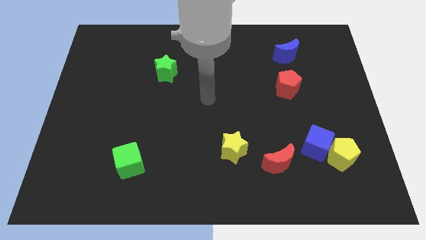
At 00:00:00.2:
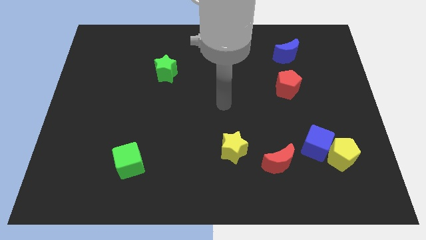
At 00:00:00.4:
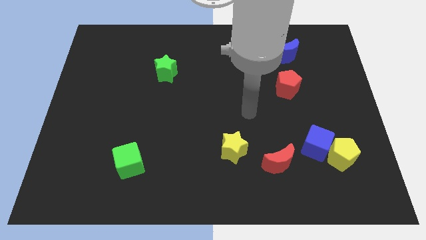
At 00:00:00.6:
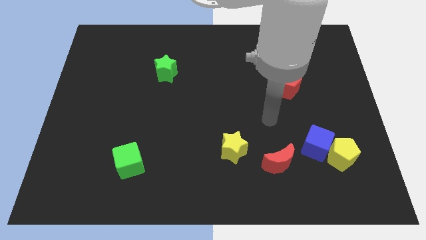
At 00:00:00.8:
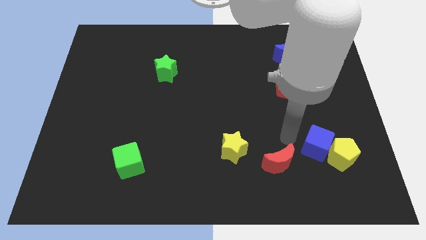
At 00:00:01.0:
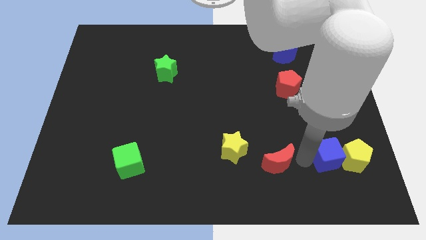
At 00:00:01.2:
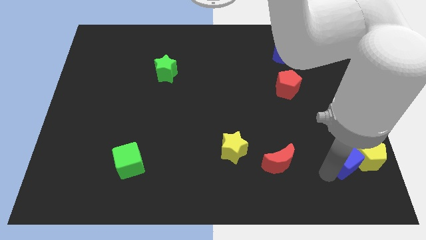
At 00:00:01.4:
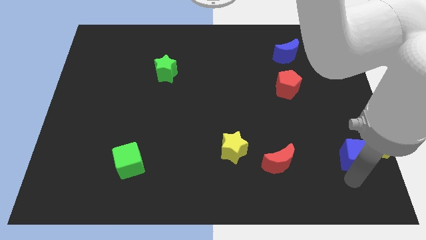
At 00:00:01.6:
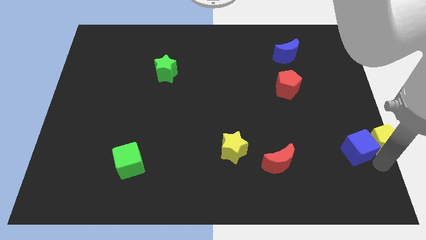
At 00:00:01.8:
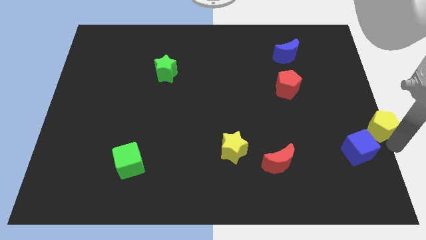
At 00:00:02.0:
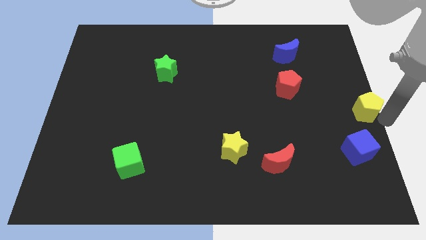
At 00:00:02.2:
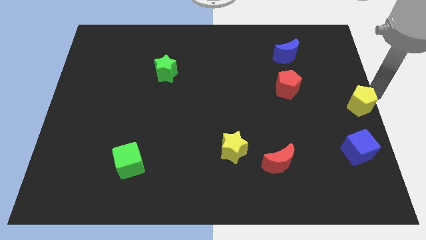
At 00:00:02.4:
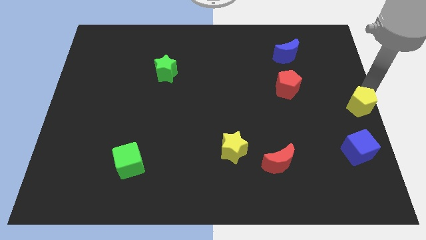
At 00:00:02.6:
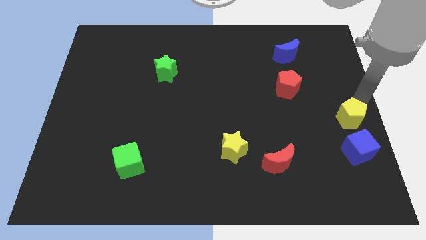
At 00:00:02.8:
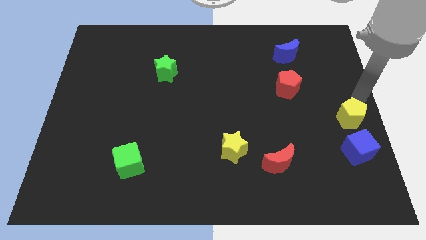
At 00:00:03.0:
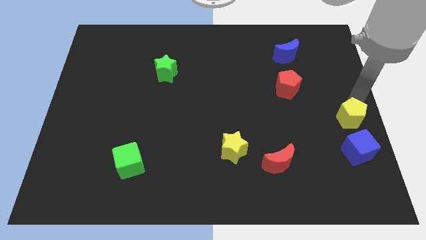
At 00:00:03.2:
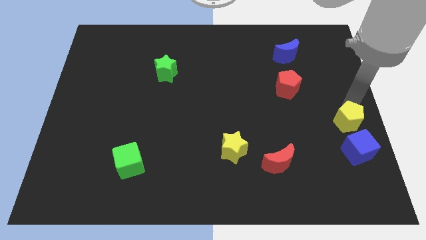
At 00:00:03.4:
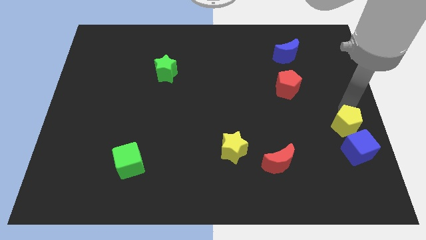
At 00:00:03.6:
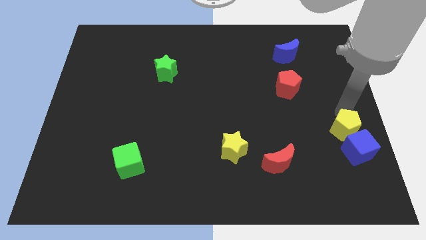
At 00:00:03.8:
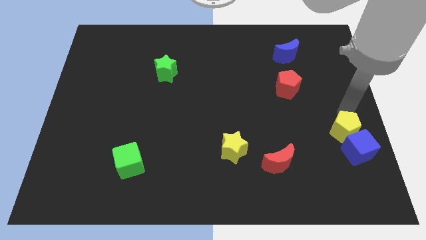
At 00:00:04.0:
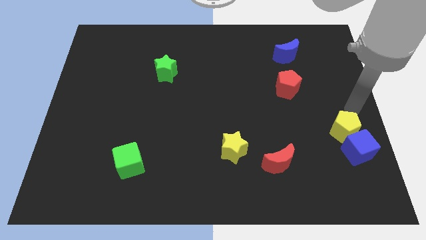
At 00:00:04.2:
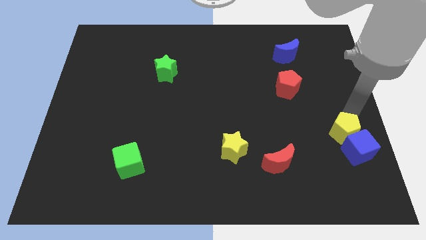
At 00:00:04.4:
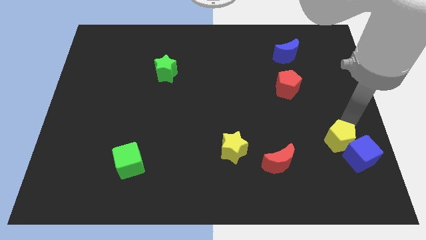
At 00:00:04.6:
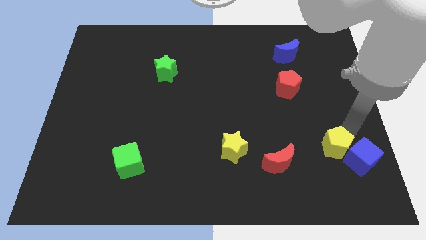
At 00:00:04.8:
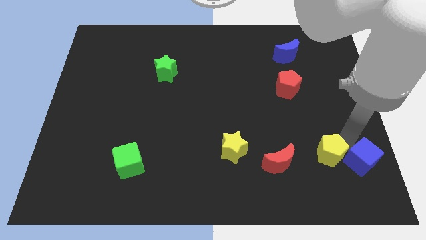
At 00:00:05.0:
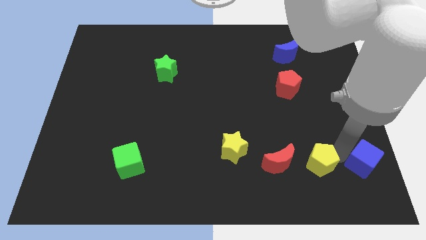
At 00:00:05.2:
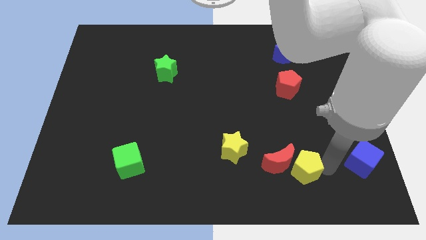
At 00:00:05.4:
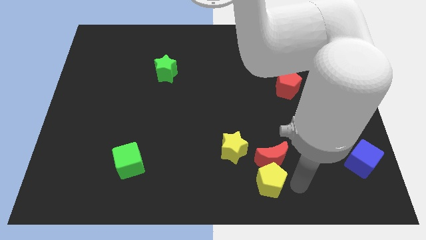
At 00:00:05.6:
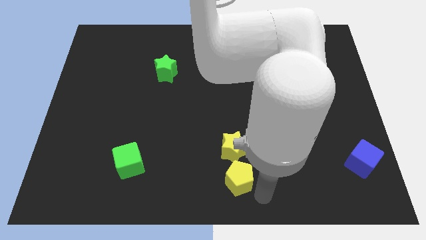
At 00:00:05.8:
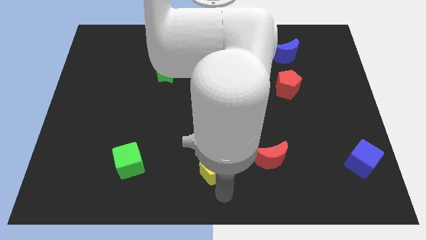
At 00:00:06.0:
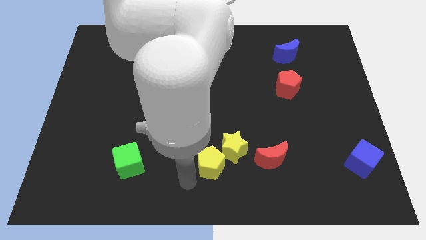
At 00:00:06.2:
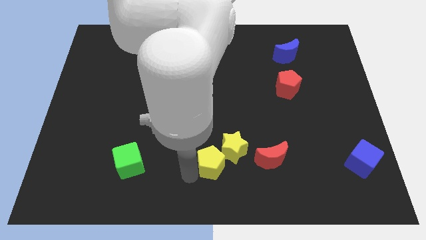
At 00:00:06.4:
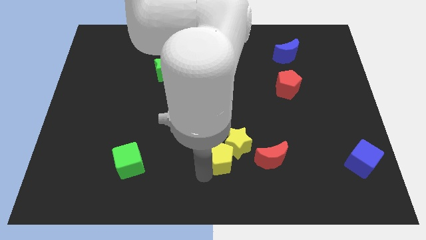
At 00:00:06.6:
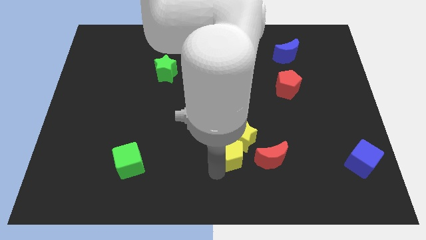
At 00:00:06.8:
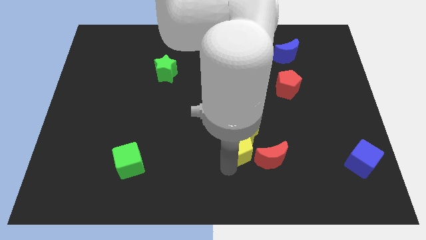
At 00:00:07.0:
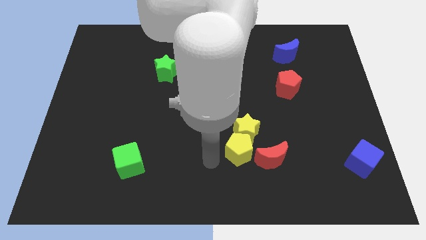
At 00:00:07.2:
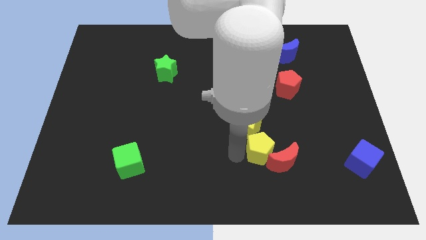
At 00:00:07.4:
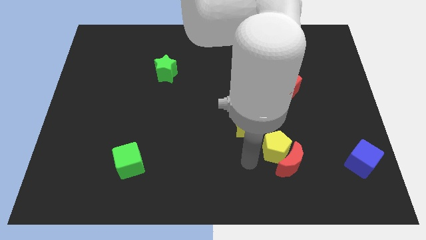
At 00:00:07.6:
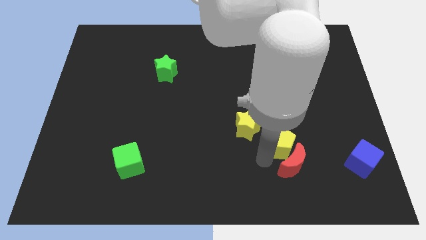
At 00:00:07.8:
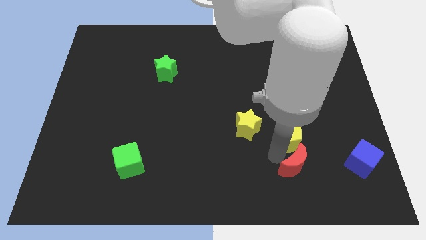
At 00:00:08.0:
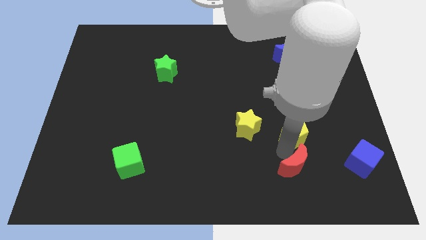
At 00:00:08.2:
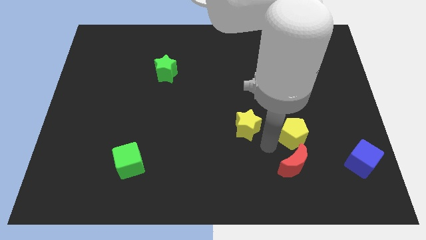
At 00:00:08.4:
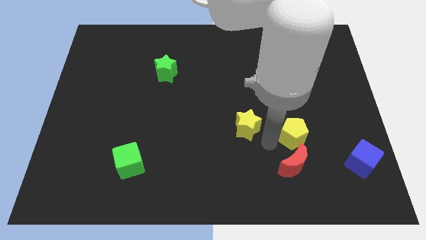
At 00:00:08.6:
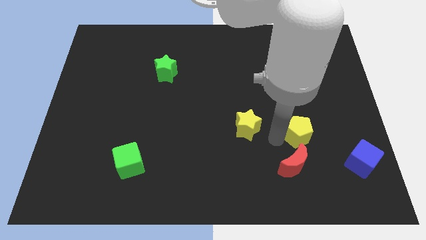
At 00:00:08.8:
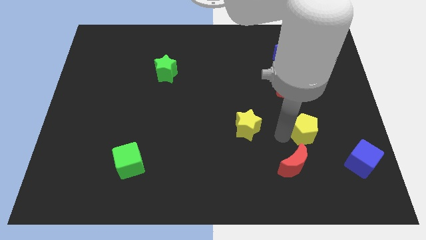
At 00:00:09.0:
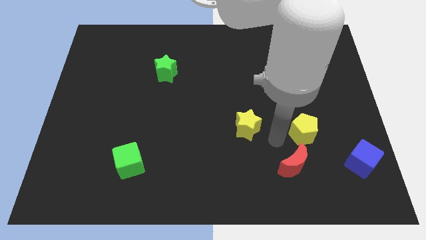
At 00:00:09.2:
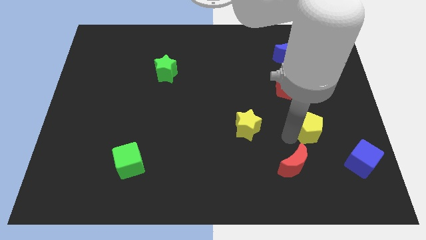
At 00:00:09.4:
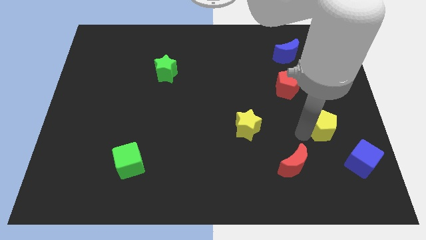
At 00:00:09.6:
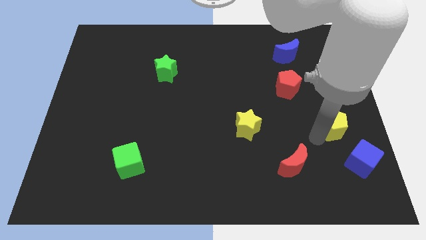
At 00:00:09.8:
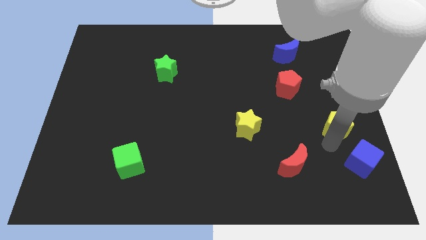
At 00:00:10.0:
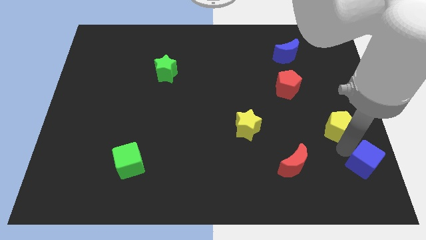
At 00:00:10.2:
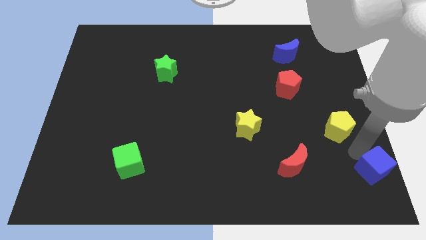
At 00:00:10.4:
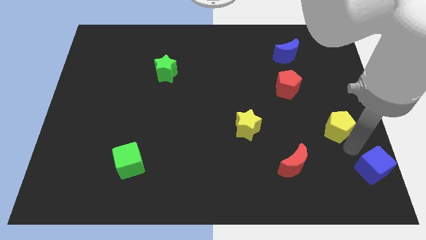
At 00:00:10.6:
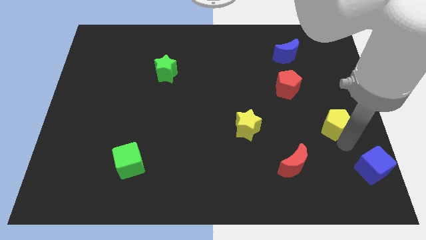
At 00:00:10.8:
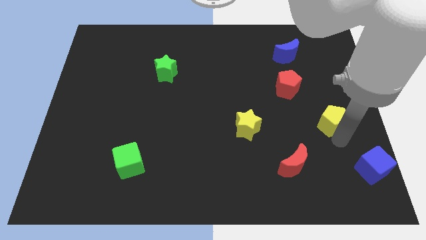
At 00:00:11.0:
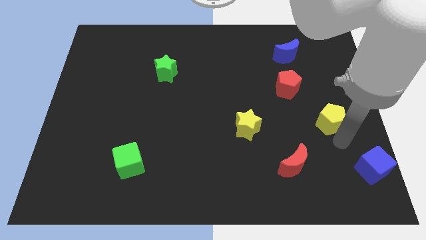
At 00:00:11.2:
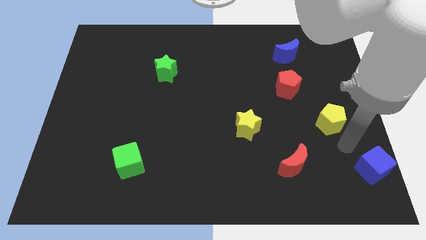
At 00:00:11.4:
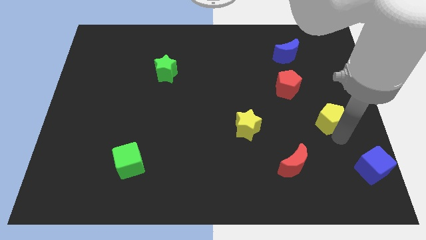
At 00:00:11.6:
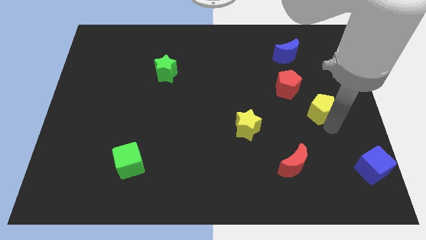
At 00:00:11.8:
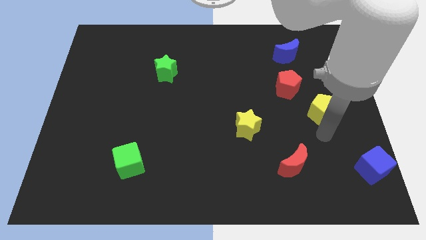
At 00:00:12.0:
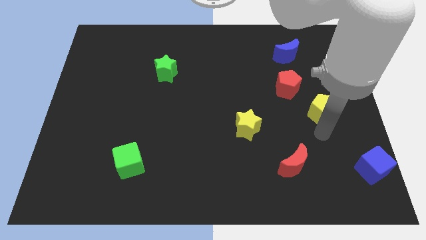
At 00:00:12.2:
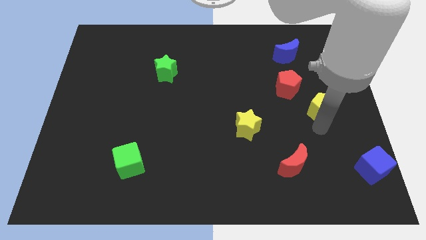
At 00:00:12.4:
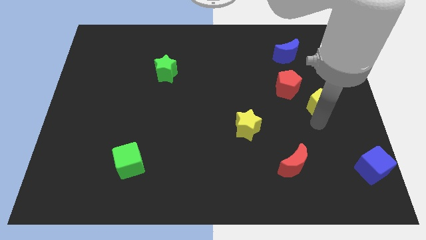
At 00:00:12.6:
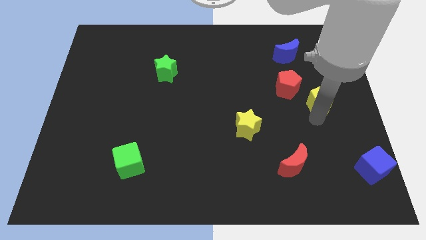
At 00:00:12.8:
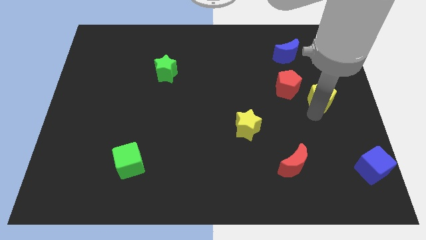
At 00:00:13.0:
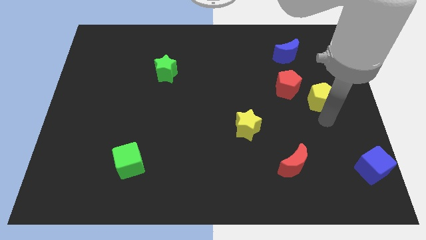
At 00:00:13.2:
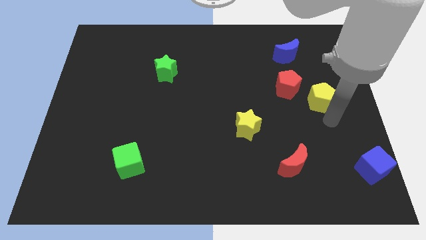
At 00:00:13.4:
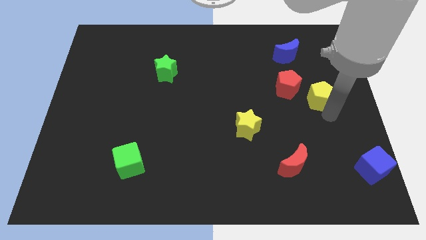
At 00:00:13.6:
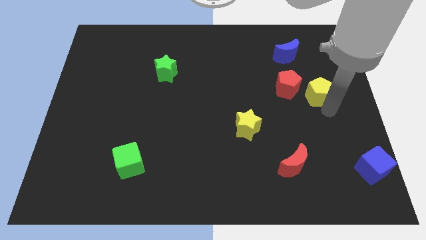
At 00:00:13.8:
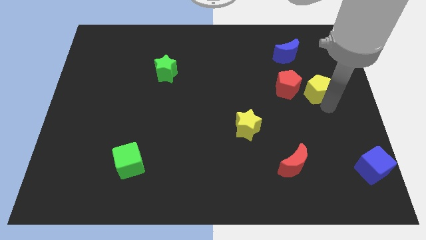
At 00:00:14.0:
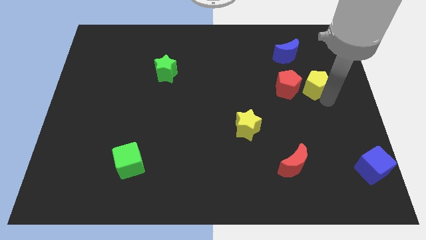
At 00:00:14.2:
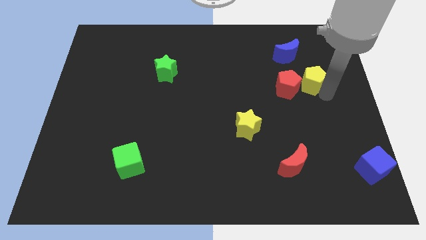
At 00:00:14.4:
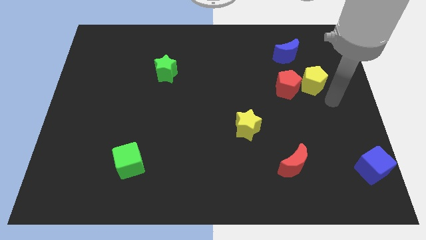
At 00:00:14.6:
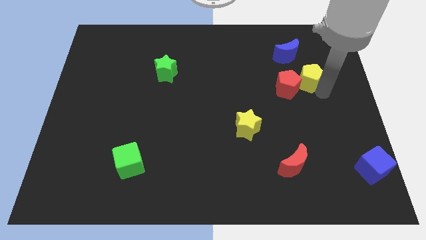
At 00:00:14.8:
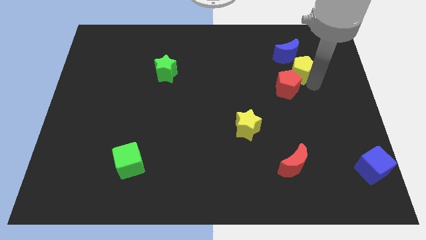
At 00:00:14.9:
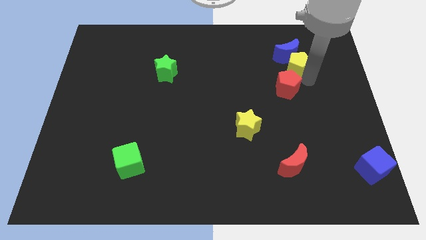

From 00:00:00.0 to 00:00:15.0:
slide the yellow pentagon to the blue moon
